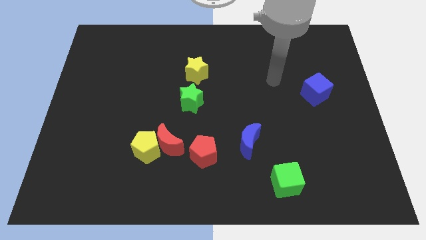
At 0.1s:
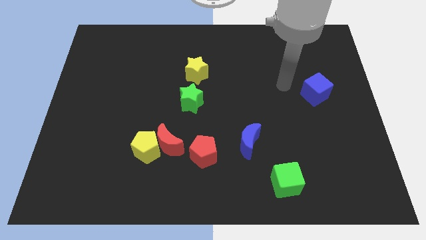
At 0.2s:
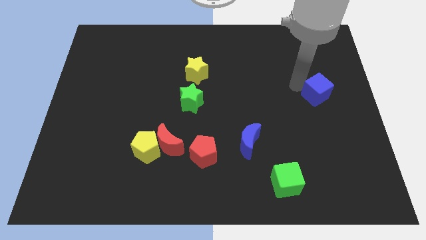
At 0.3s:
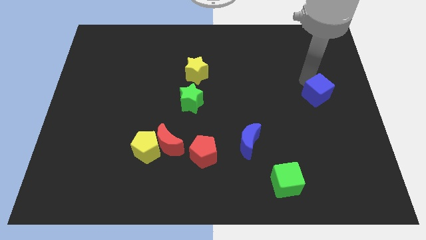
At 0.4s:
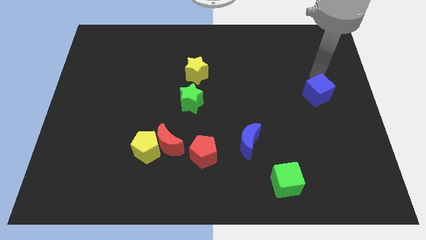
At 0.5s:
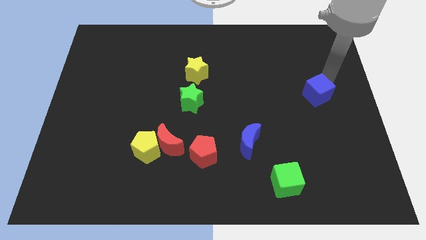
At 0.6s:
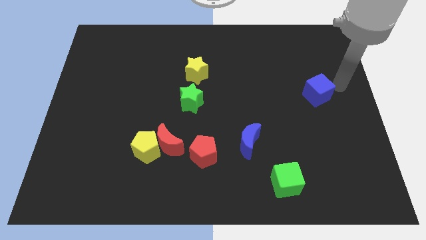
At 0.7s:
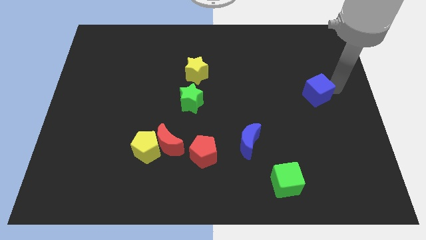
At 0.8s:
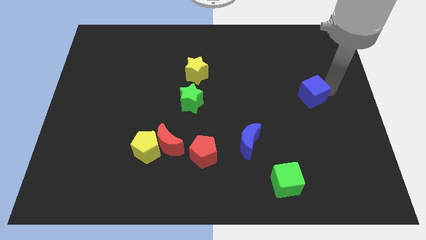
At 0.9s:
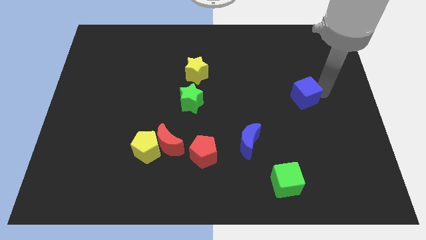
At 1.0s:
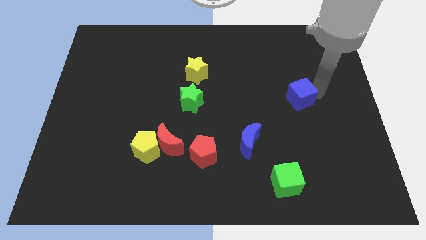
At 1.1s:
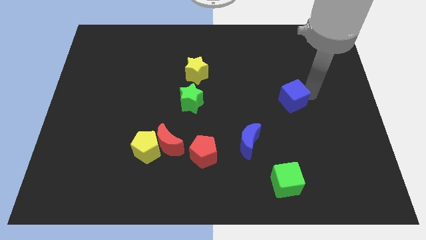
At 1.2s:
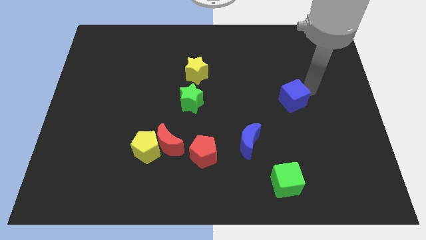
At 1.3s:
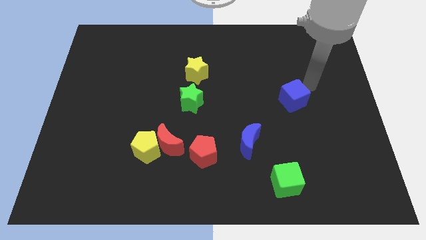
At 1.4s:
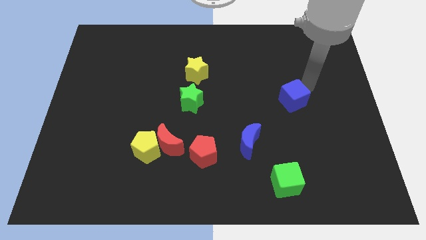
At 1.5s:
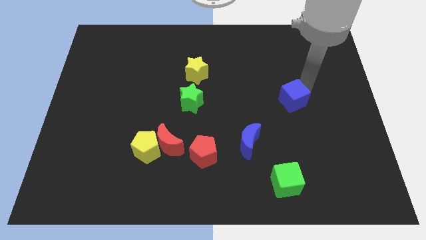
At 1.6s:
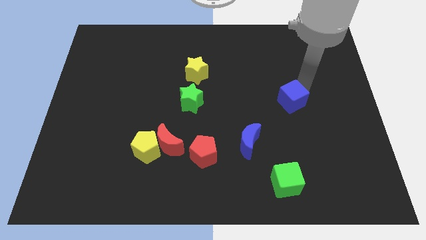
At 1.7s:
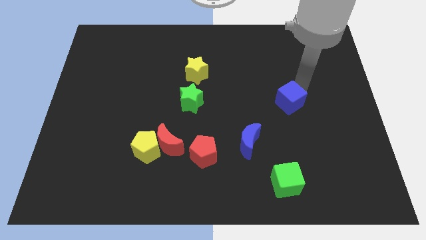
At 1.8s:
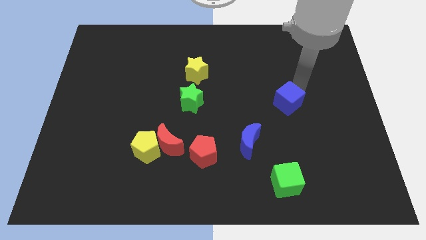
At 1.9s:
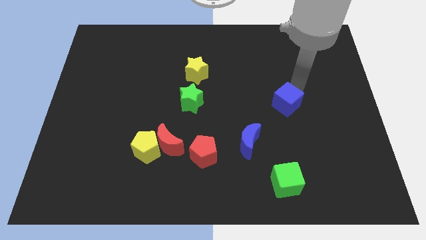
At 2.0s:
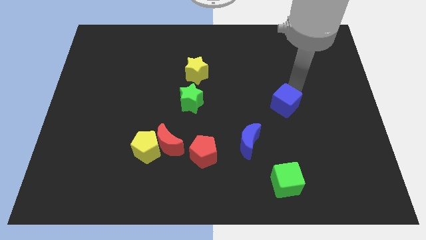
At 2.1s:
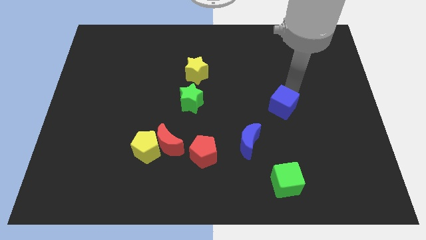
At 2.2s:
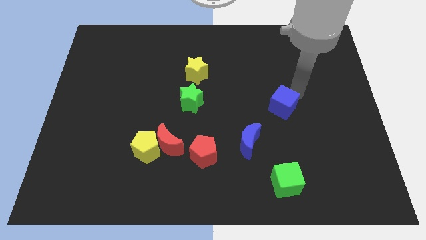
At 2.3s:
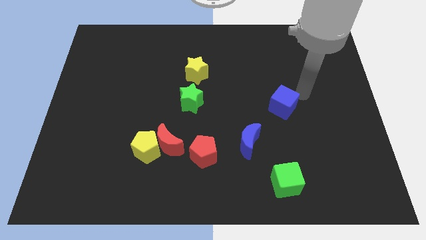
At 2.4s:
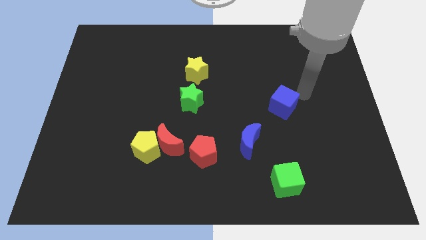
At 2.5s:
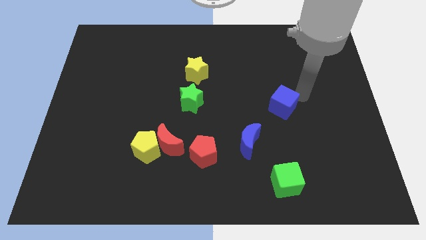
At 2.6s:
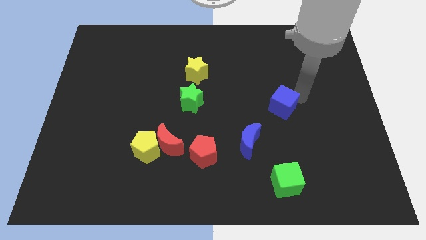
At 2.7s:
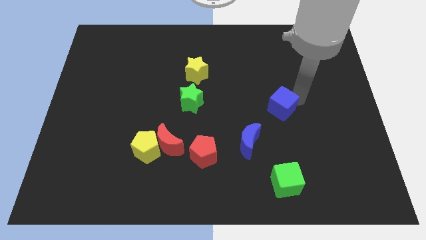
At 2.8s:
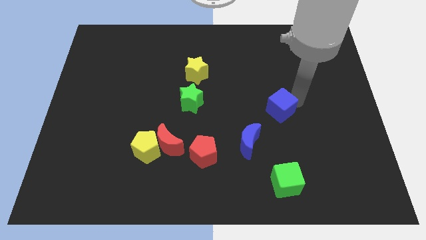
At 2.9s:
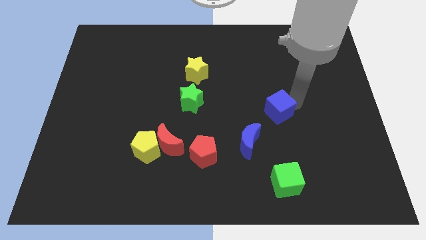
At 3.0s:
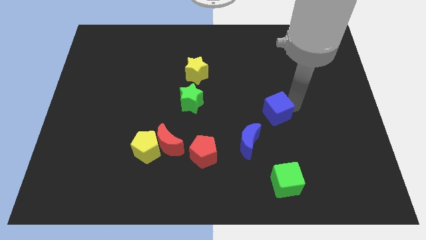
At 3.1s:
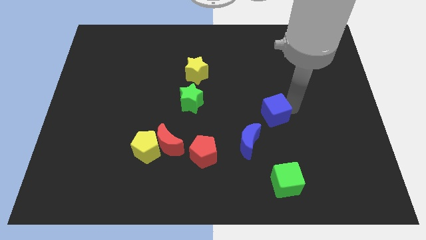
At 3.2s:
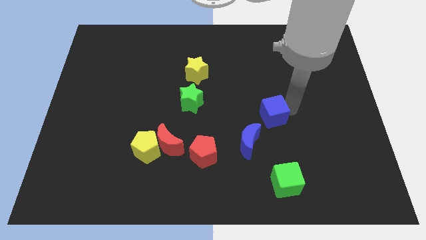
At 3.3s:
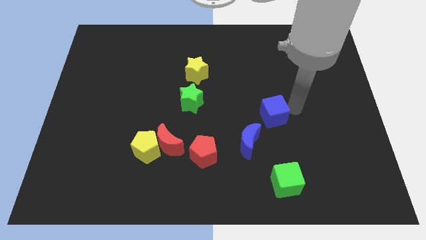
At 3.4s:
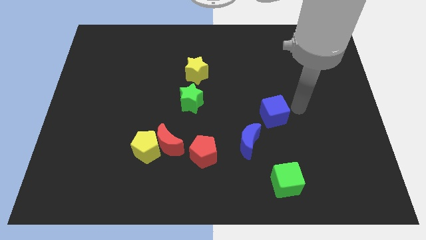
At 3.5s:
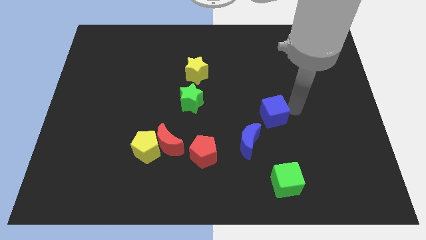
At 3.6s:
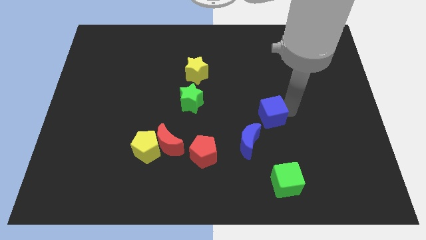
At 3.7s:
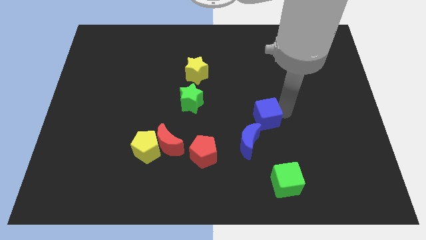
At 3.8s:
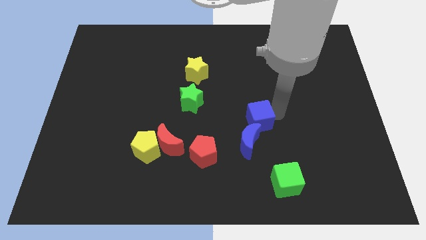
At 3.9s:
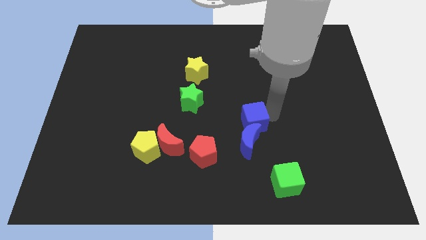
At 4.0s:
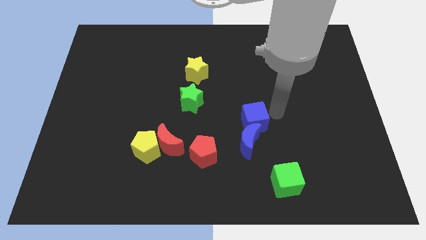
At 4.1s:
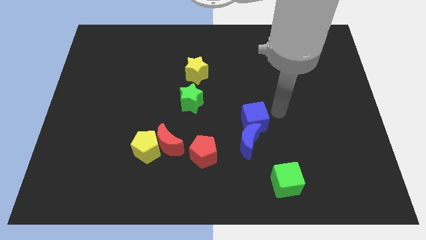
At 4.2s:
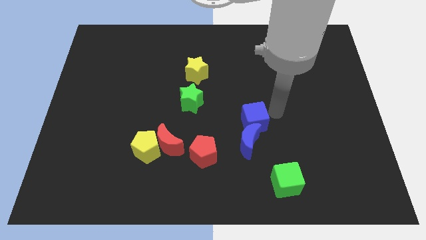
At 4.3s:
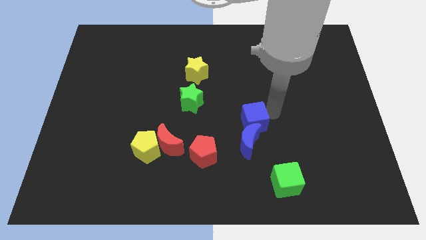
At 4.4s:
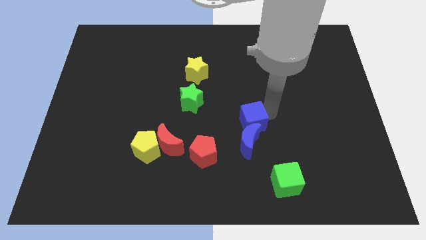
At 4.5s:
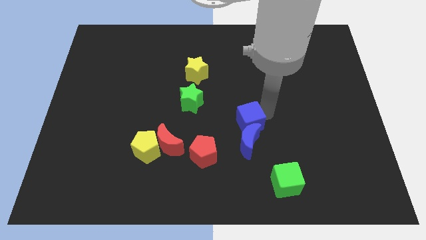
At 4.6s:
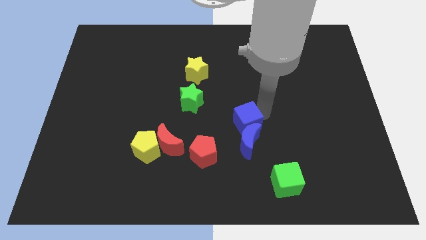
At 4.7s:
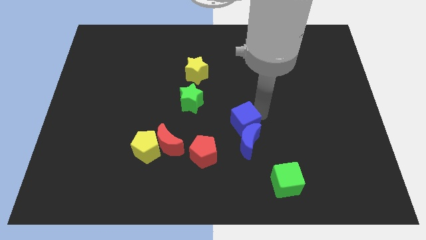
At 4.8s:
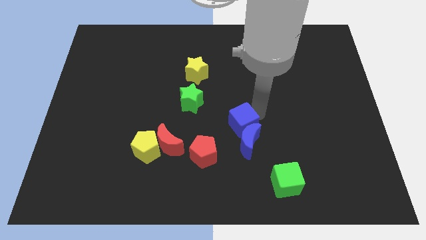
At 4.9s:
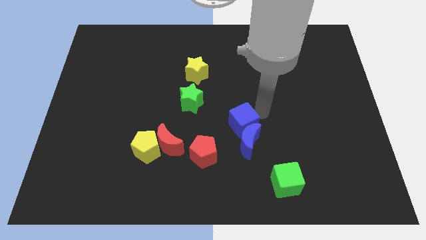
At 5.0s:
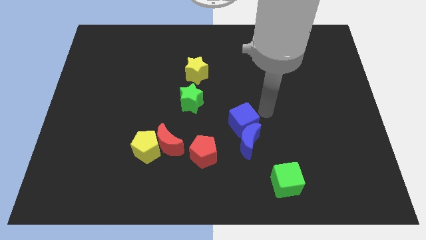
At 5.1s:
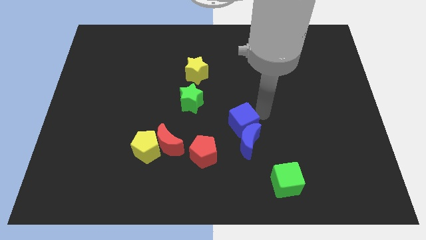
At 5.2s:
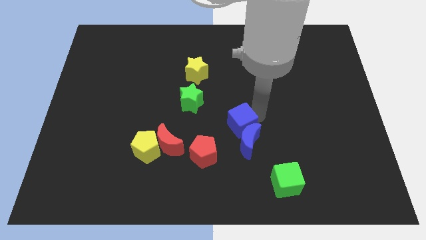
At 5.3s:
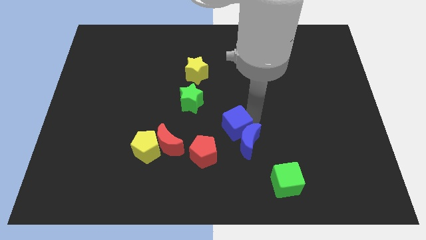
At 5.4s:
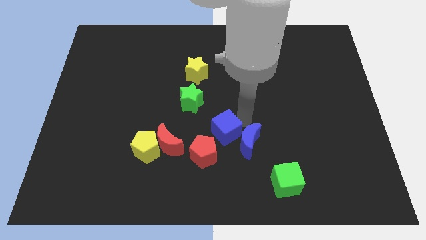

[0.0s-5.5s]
move the blue cube down and then left

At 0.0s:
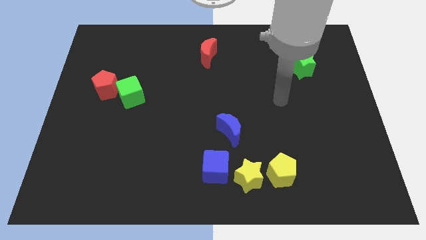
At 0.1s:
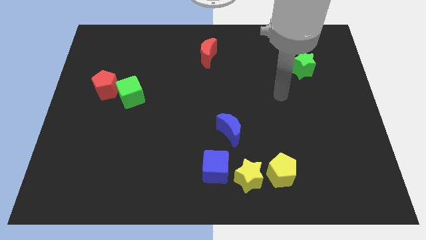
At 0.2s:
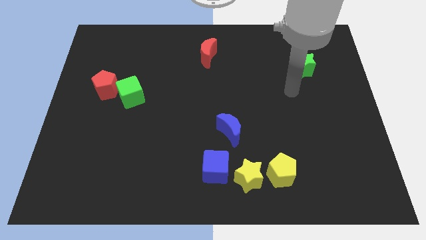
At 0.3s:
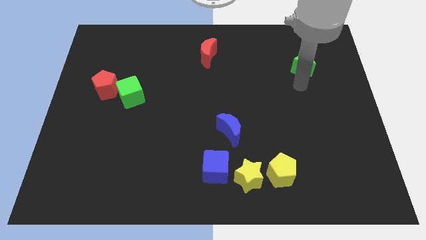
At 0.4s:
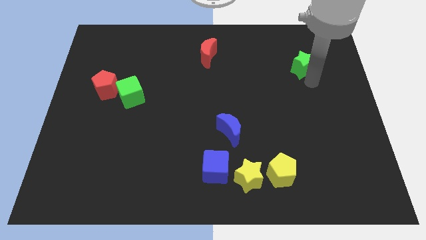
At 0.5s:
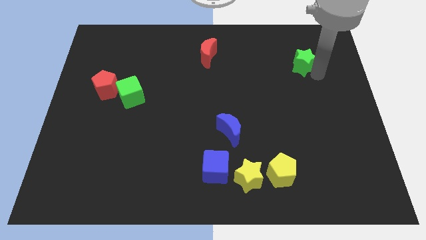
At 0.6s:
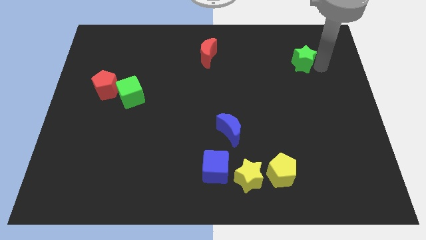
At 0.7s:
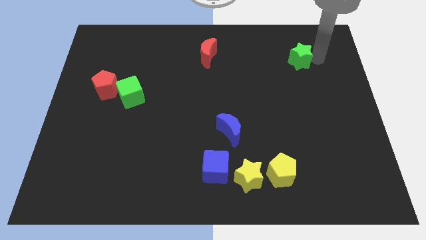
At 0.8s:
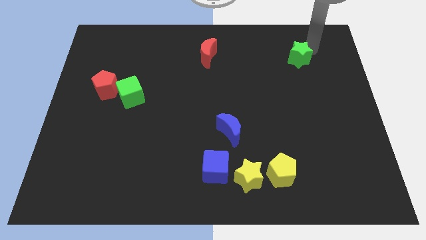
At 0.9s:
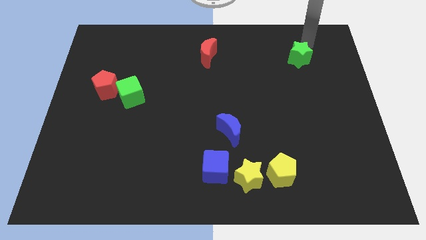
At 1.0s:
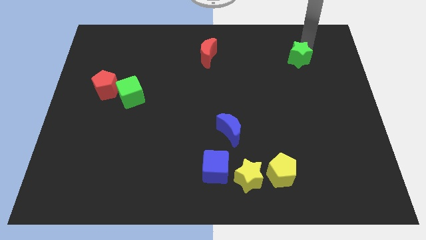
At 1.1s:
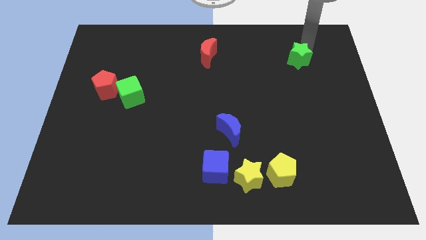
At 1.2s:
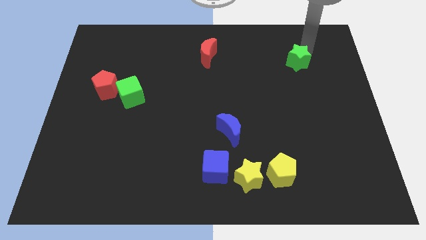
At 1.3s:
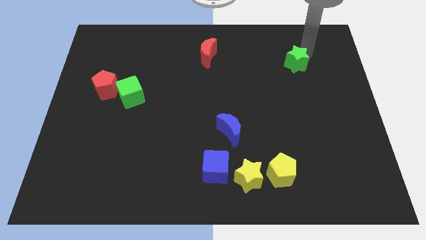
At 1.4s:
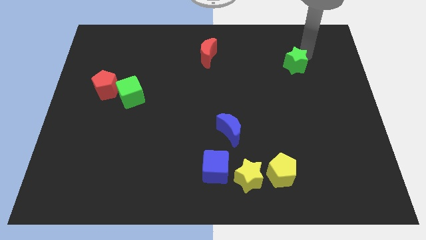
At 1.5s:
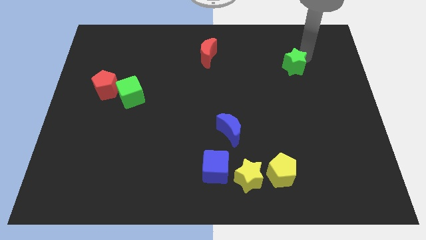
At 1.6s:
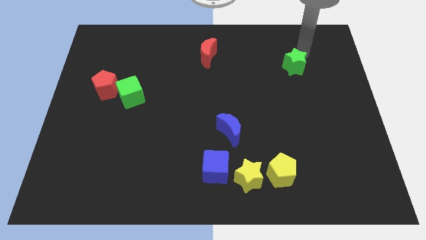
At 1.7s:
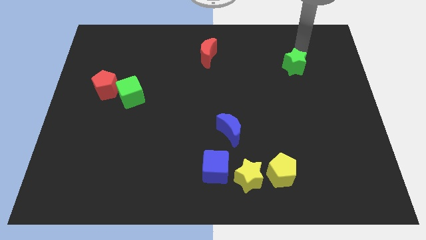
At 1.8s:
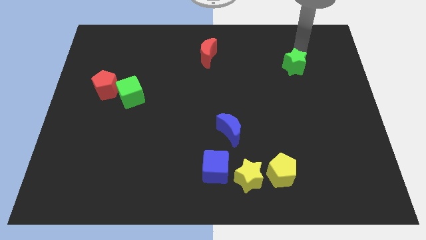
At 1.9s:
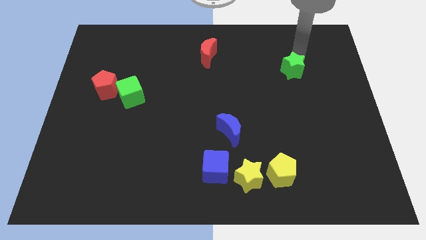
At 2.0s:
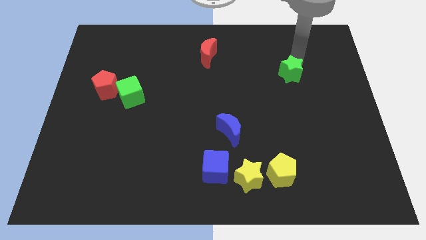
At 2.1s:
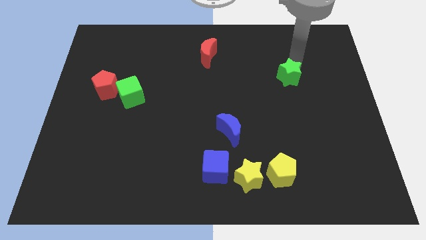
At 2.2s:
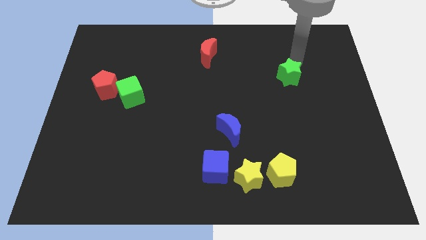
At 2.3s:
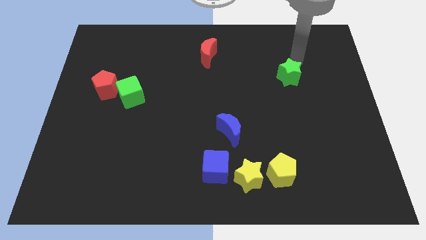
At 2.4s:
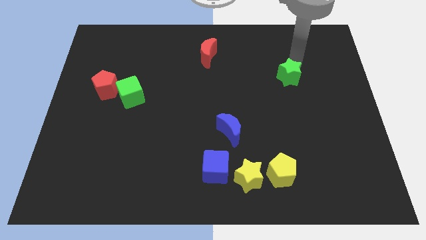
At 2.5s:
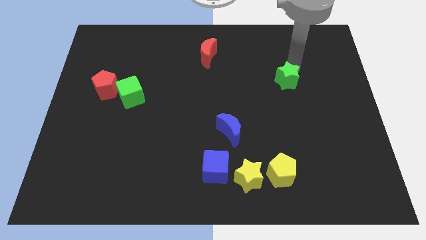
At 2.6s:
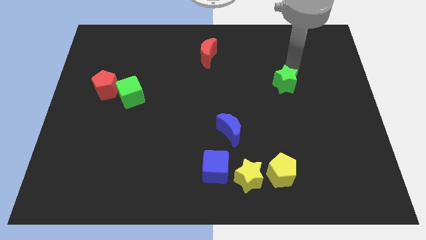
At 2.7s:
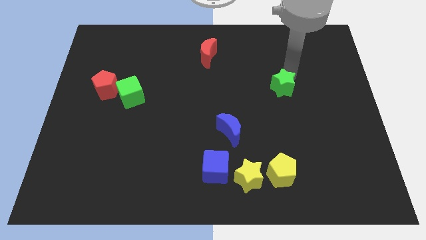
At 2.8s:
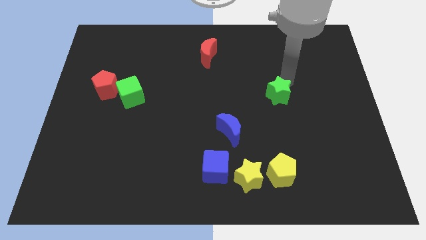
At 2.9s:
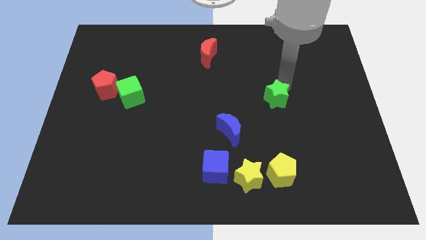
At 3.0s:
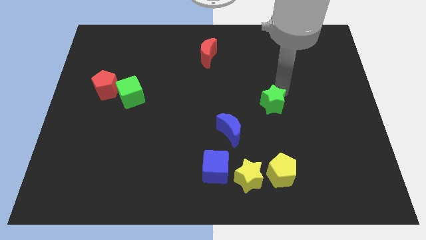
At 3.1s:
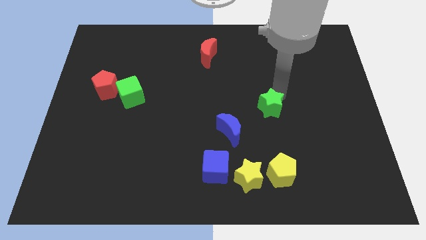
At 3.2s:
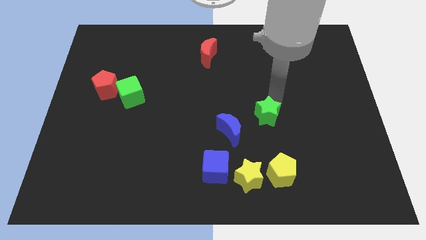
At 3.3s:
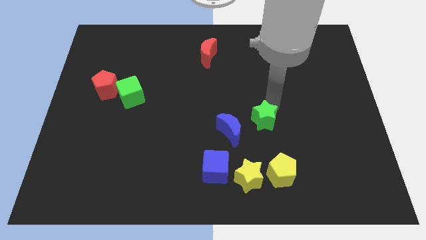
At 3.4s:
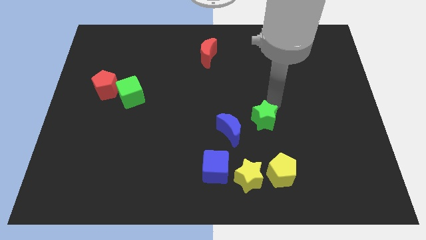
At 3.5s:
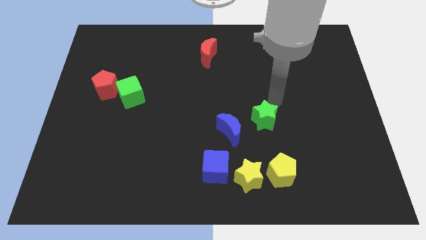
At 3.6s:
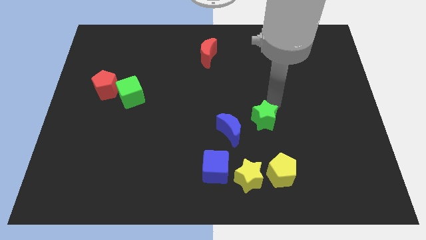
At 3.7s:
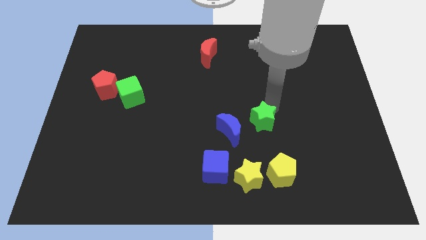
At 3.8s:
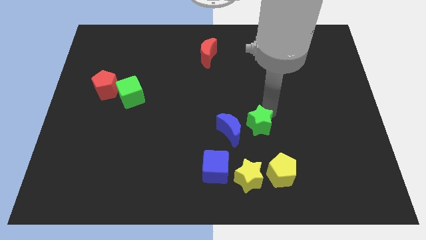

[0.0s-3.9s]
move the green star downwards and left
